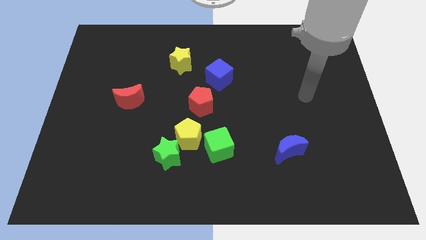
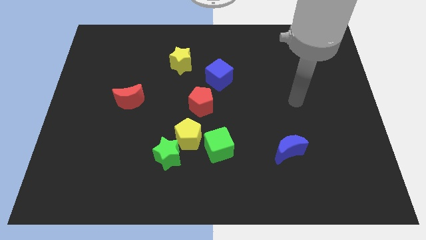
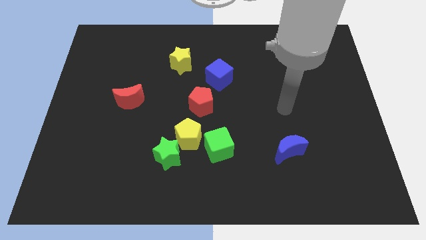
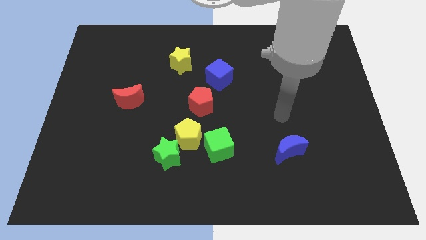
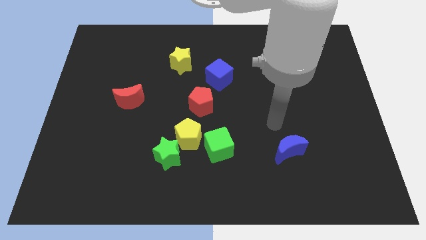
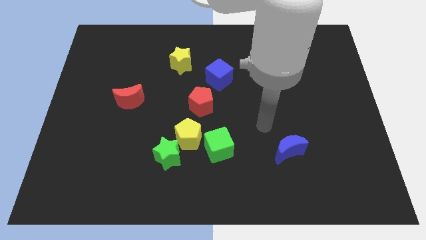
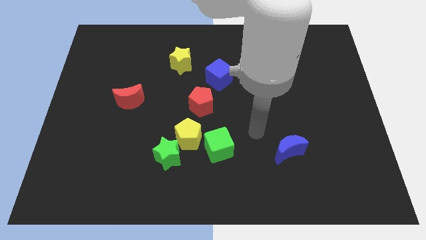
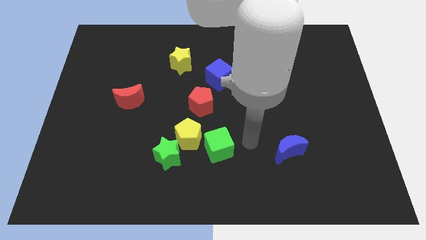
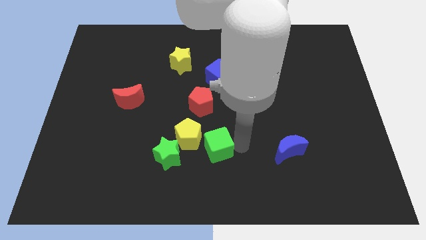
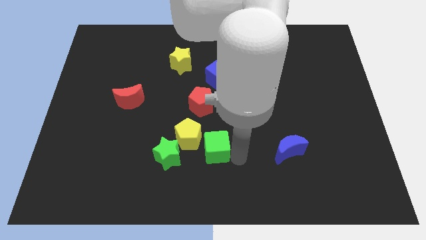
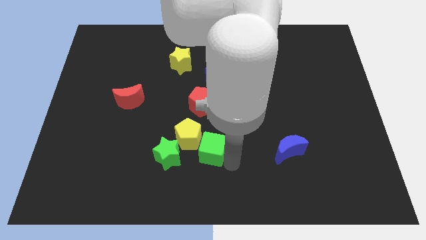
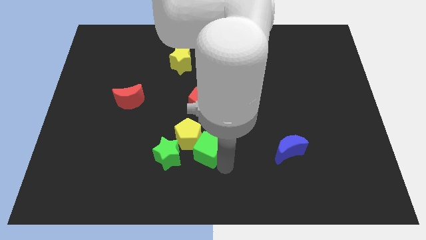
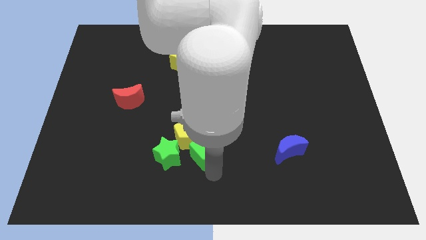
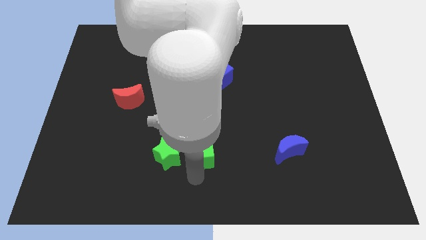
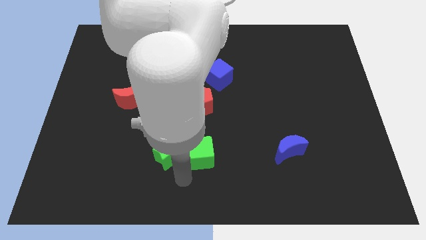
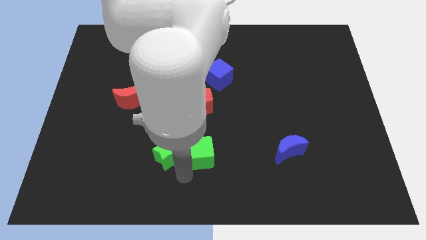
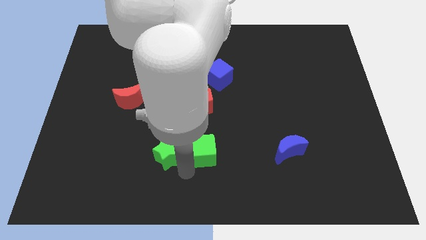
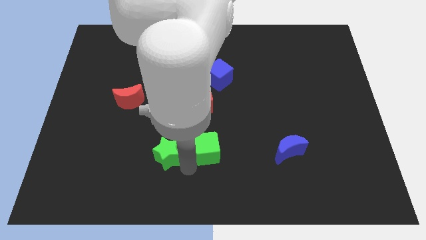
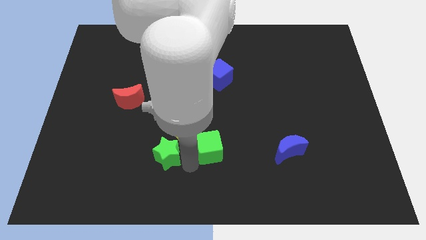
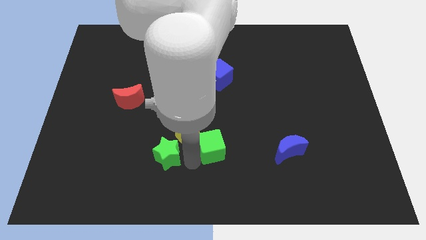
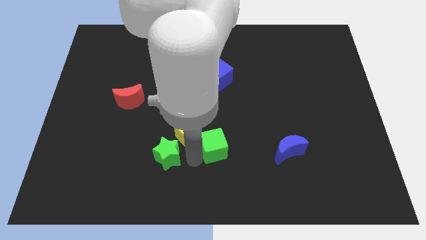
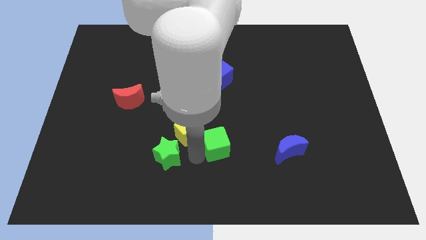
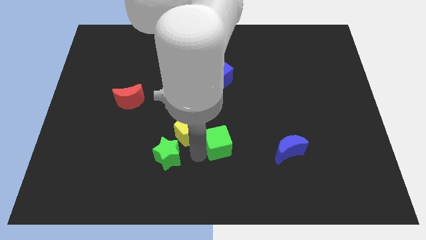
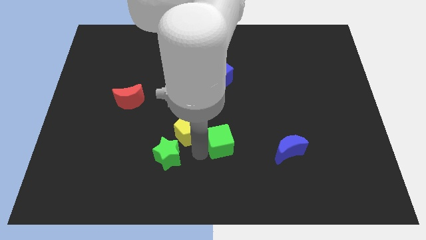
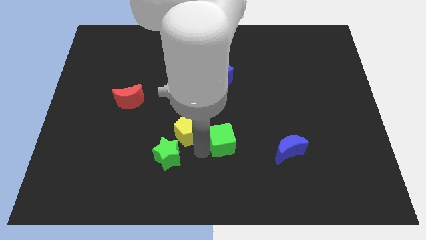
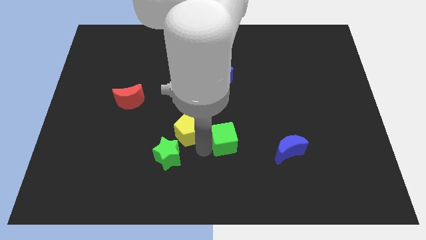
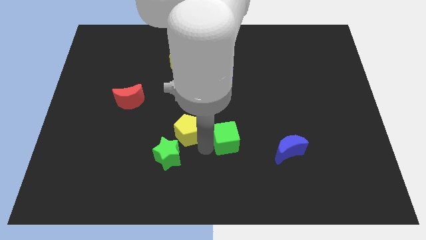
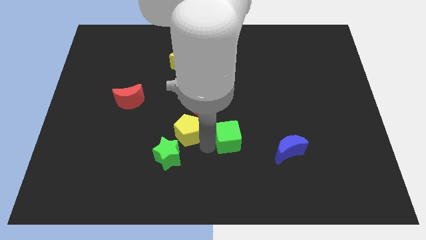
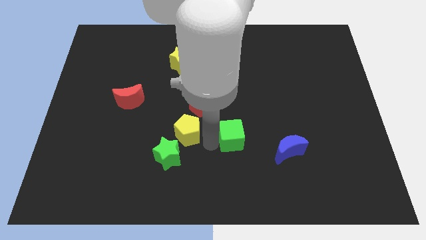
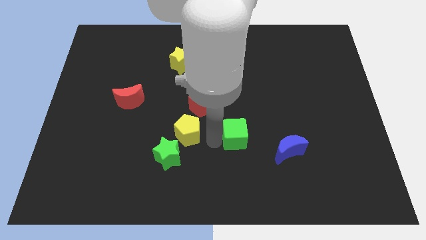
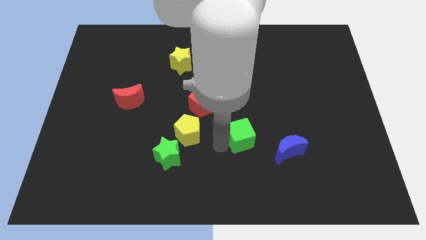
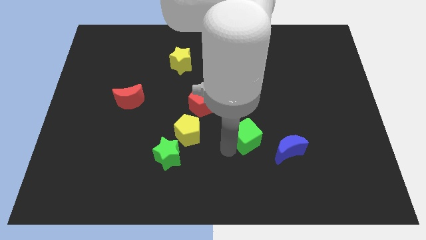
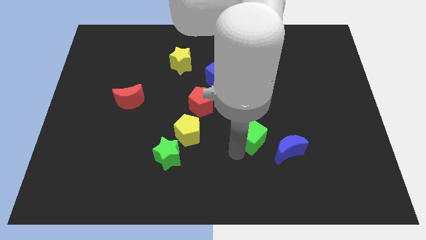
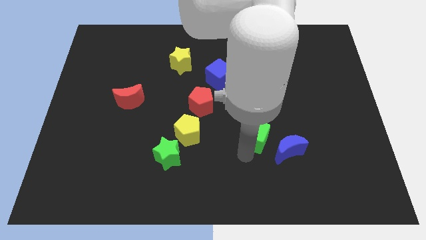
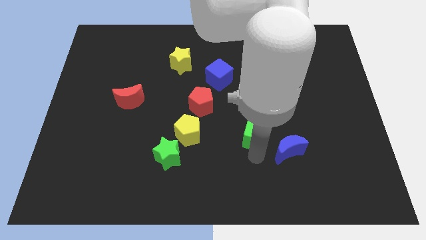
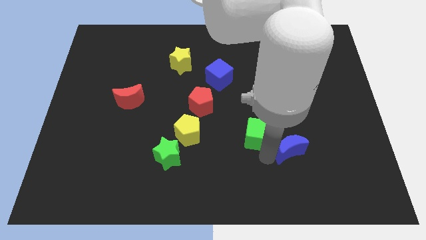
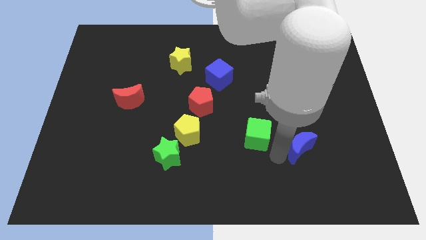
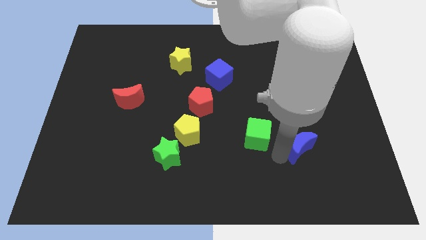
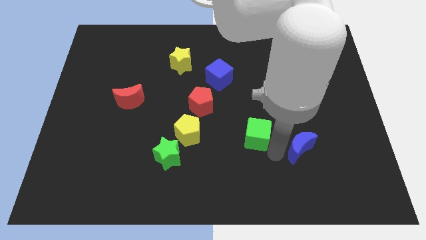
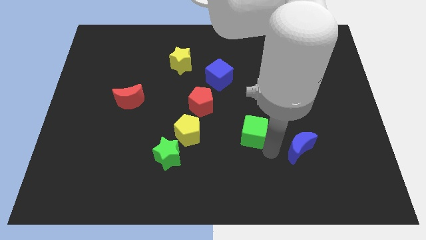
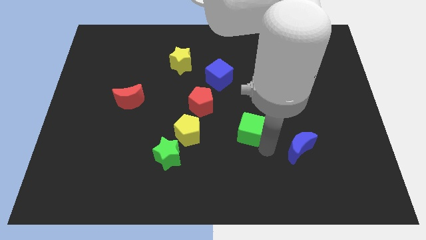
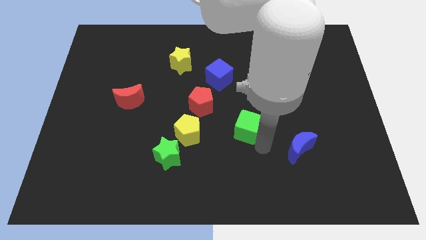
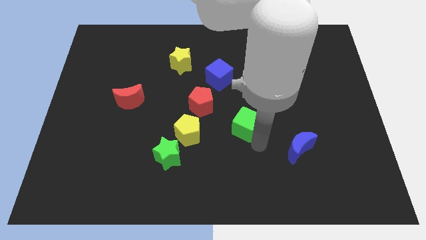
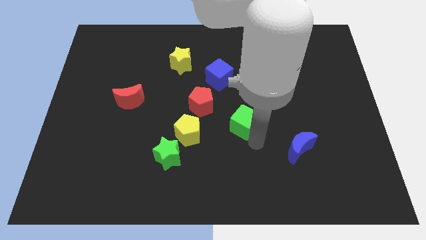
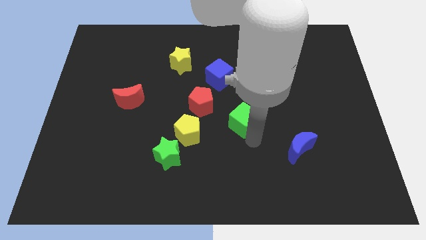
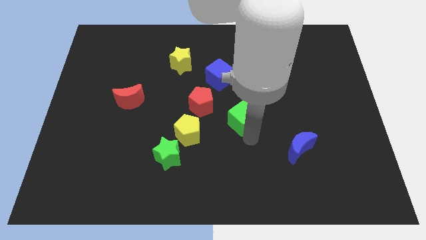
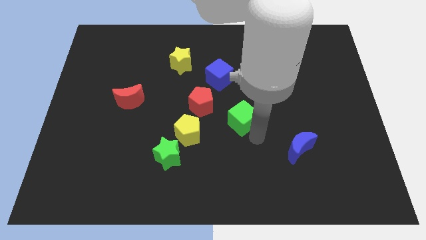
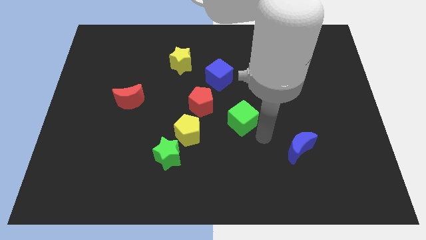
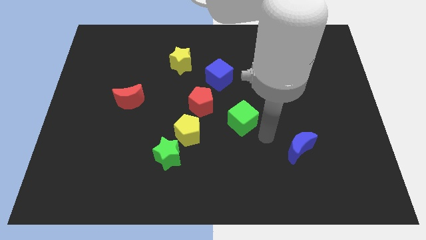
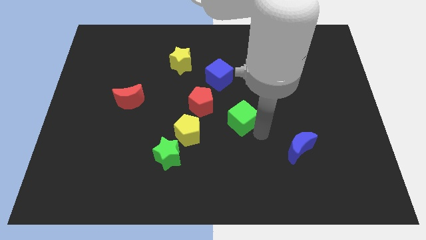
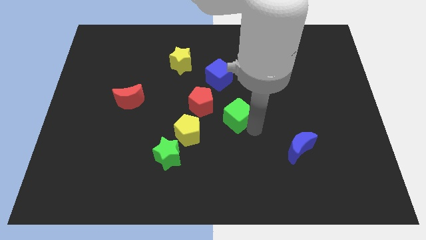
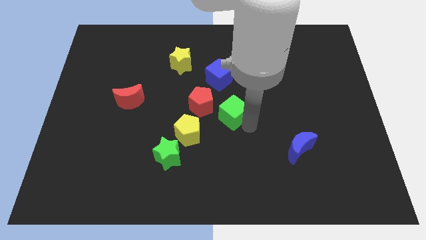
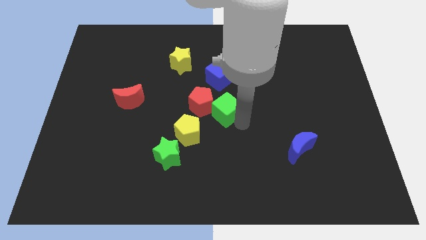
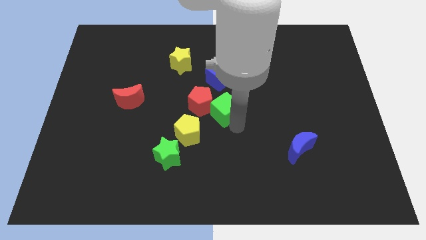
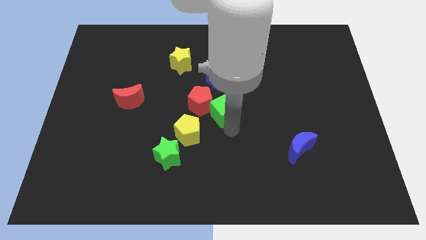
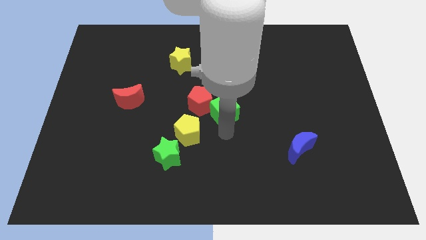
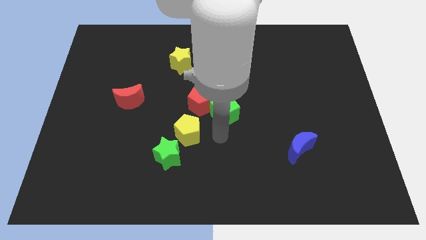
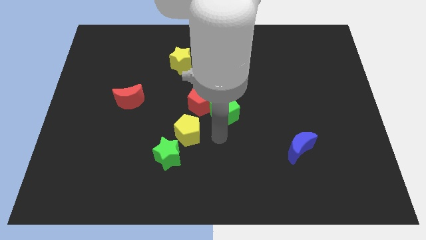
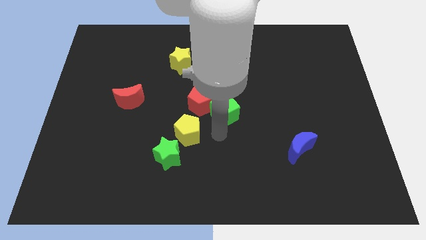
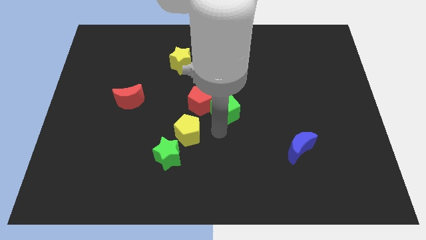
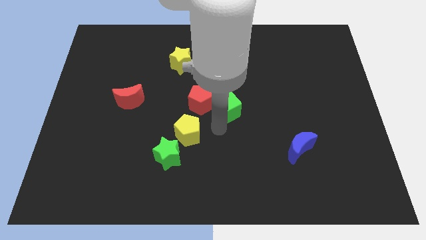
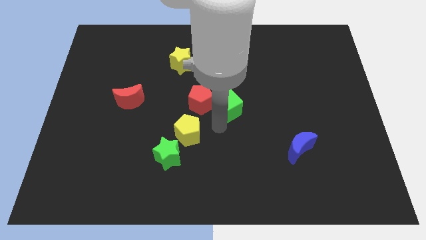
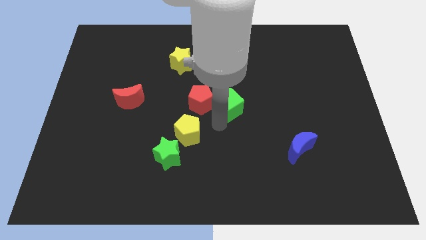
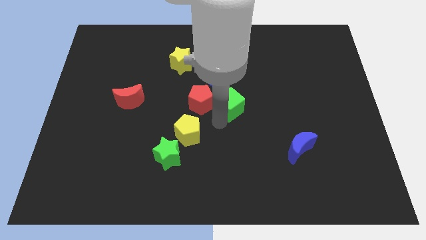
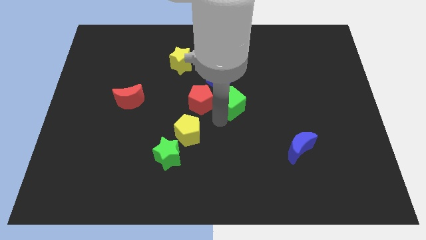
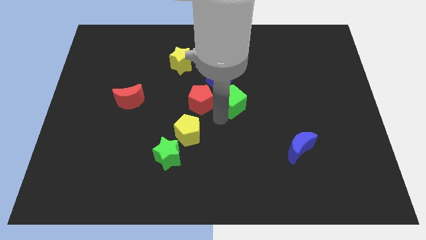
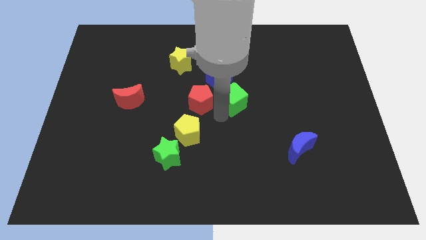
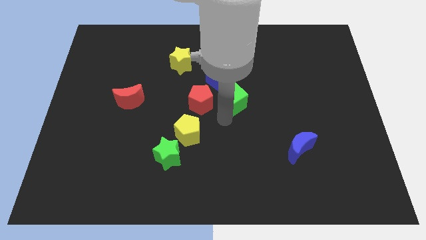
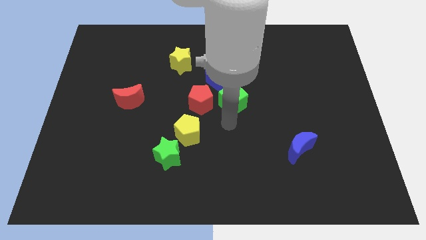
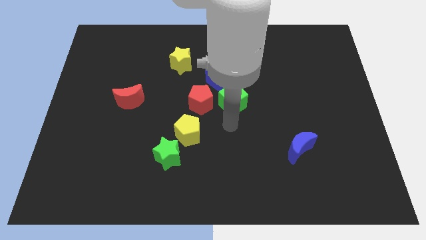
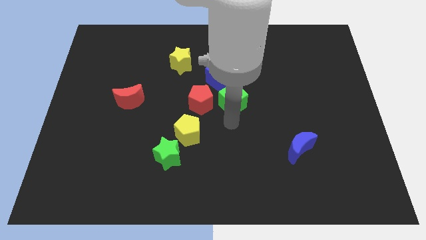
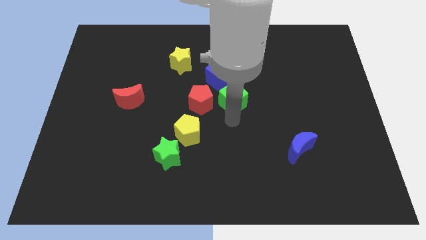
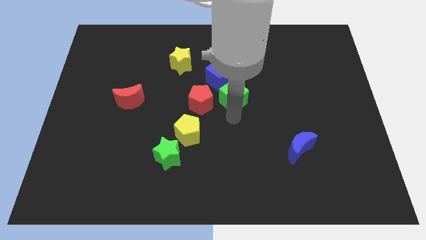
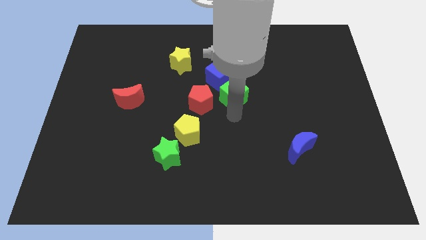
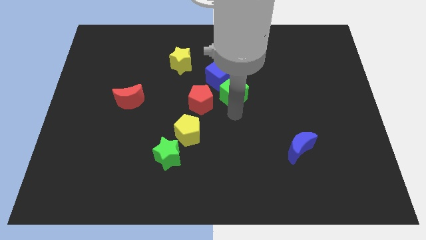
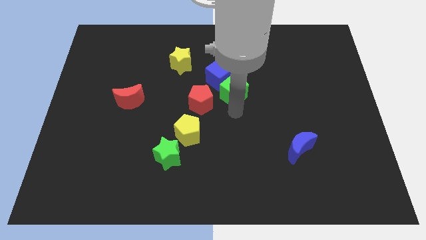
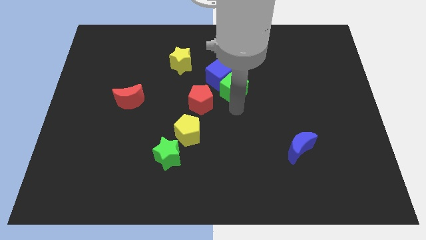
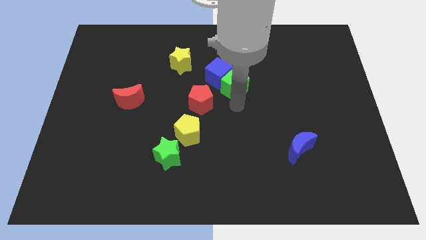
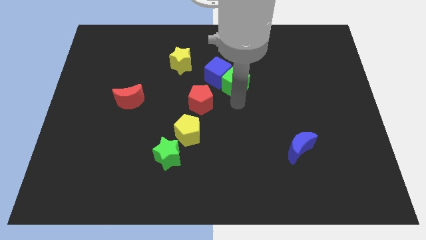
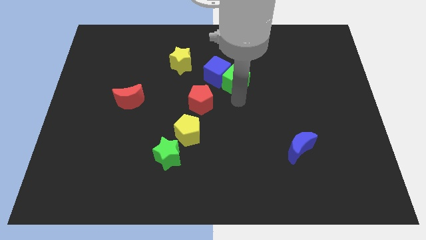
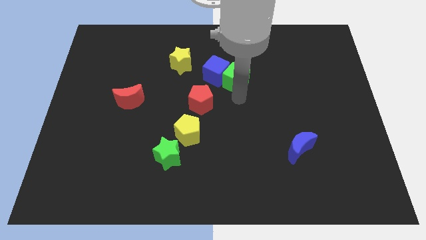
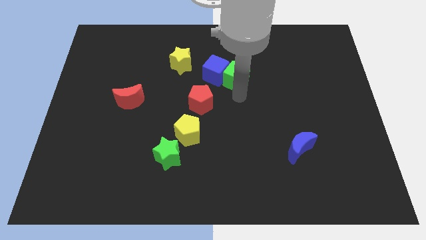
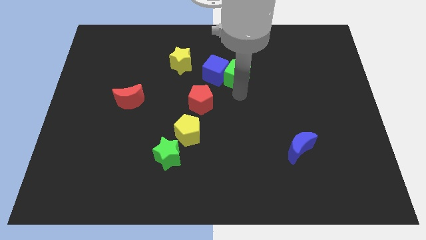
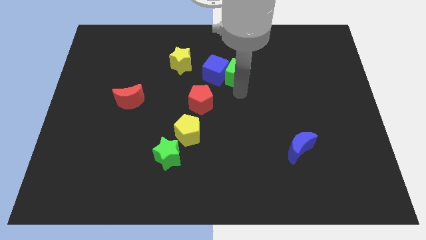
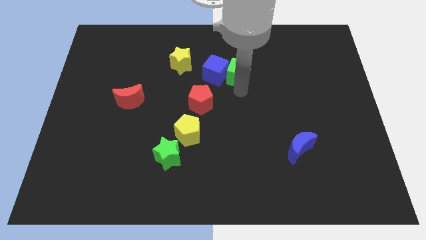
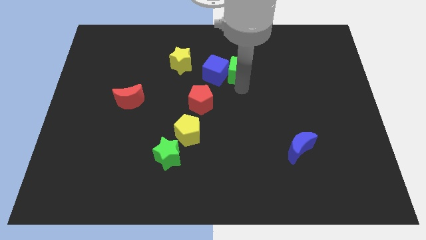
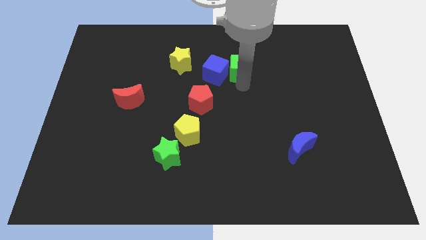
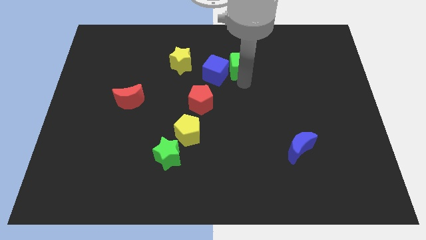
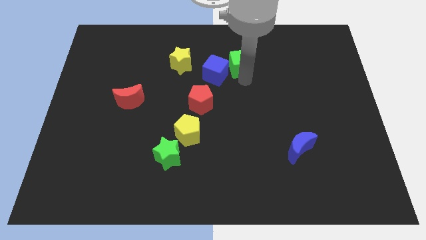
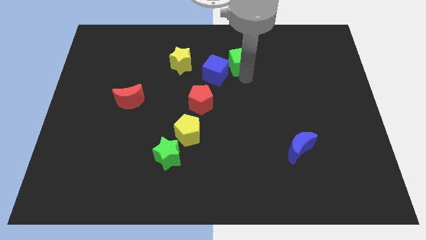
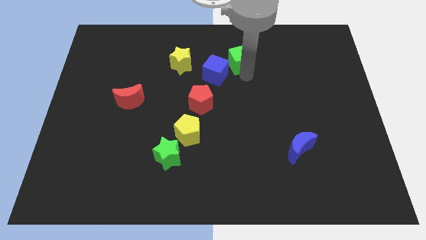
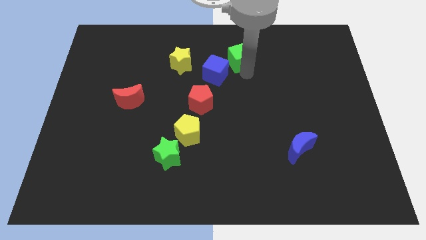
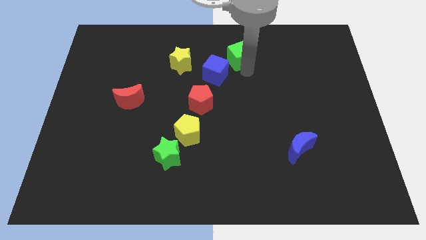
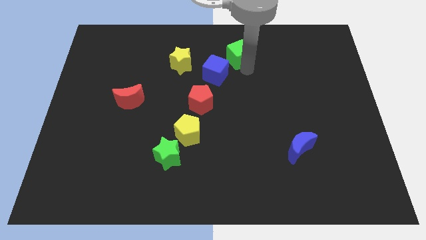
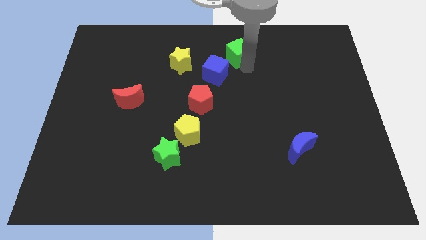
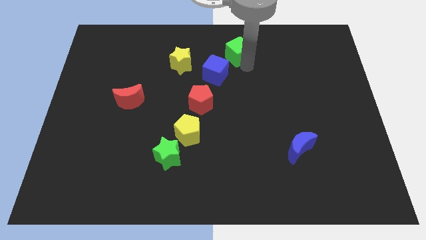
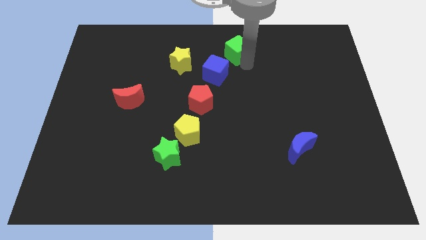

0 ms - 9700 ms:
move the green cube to the towards your base
